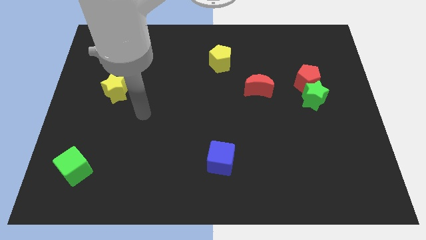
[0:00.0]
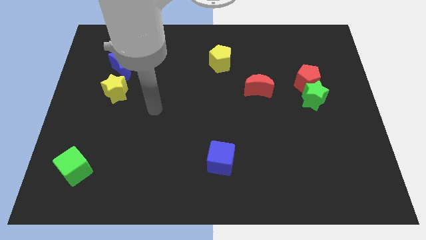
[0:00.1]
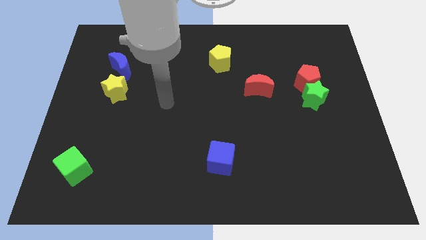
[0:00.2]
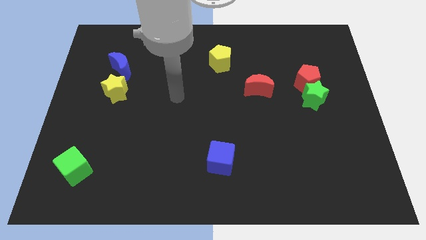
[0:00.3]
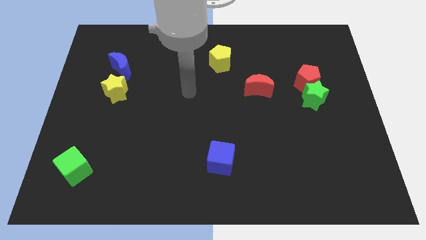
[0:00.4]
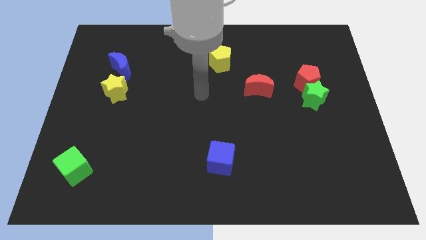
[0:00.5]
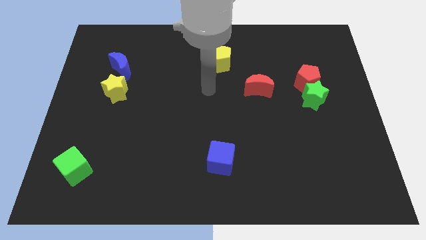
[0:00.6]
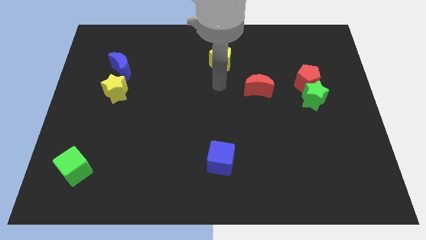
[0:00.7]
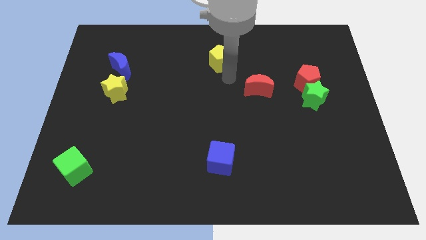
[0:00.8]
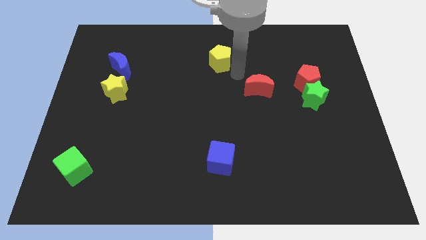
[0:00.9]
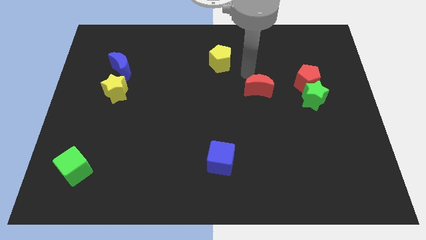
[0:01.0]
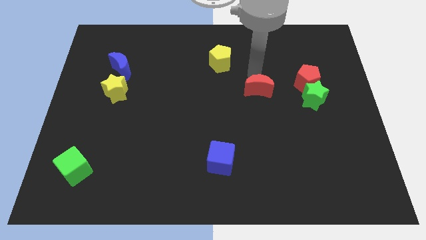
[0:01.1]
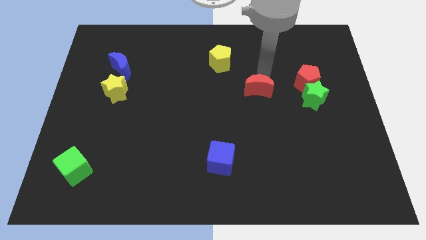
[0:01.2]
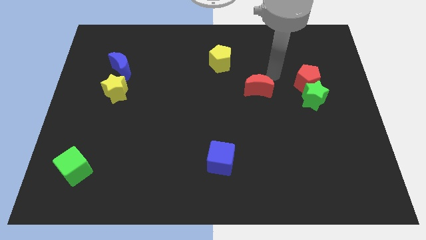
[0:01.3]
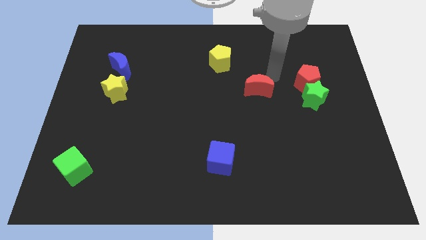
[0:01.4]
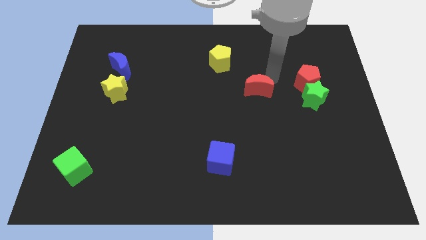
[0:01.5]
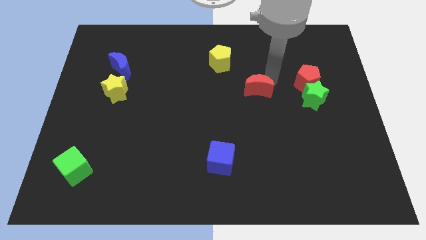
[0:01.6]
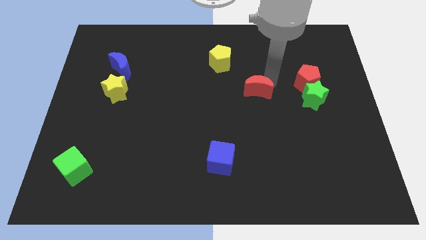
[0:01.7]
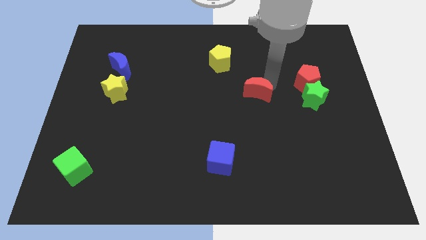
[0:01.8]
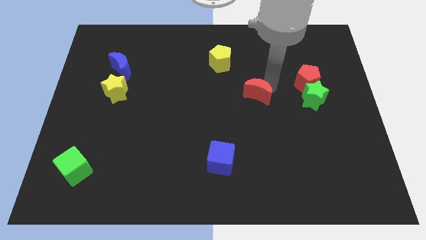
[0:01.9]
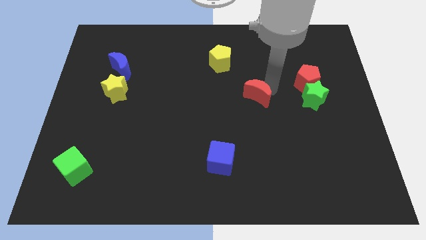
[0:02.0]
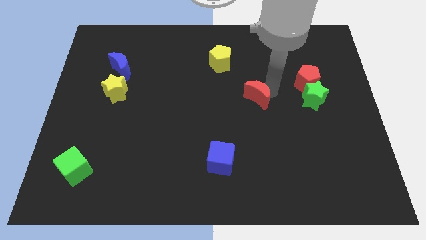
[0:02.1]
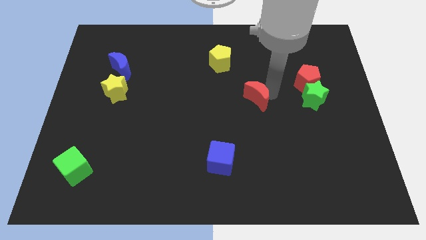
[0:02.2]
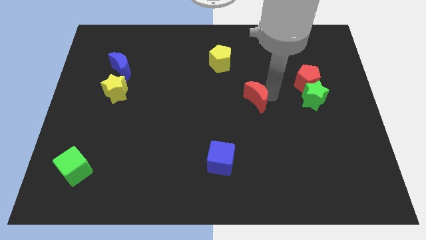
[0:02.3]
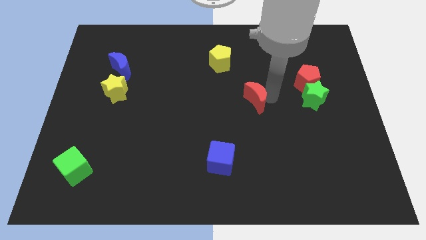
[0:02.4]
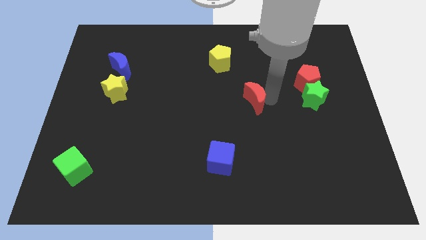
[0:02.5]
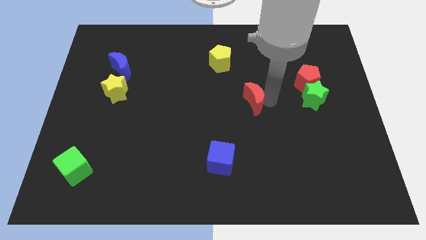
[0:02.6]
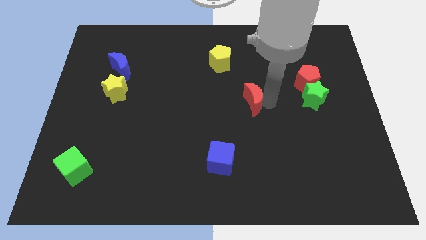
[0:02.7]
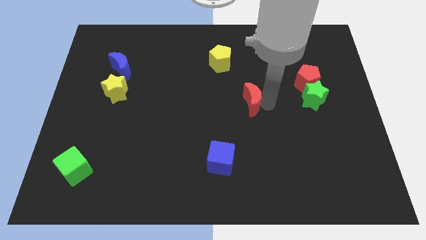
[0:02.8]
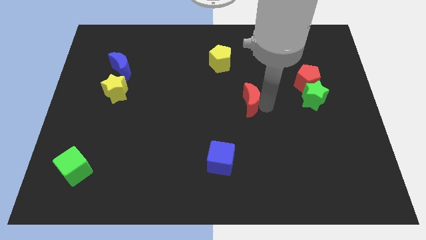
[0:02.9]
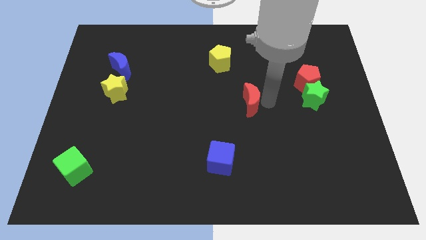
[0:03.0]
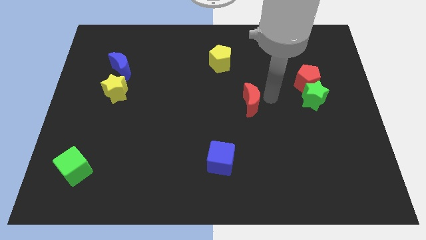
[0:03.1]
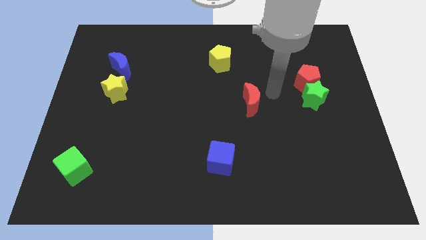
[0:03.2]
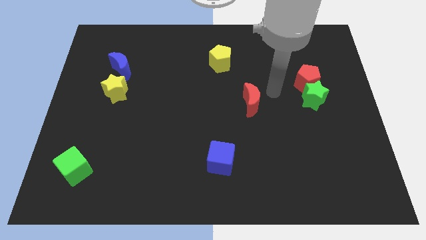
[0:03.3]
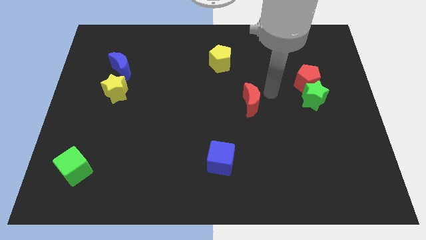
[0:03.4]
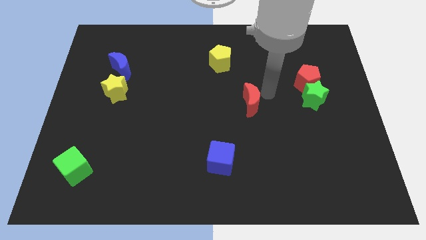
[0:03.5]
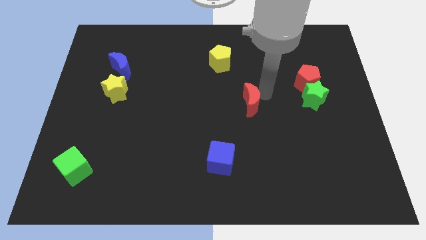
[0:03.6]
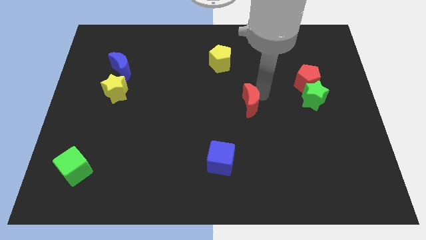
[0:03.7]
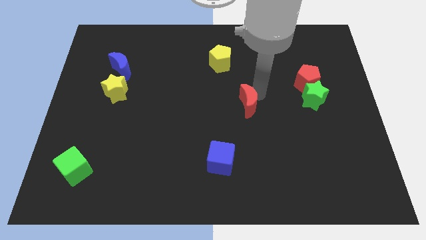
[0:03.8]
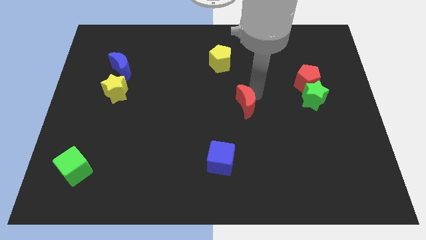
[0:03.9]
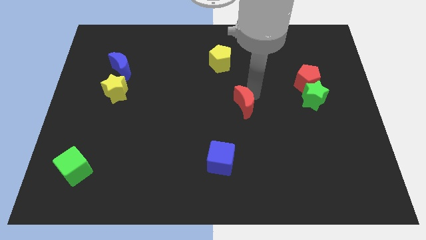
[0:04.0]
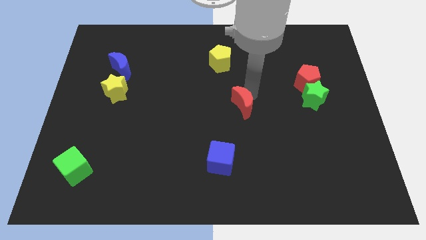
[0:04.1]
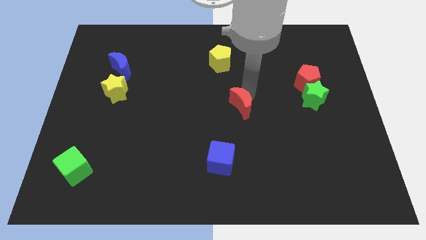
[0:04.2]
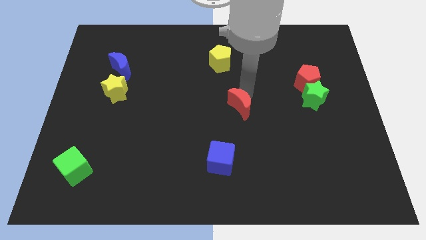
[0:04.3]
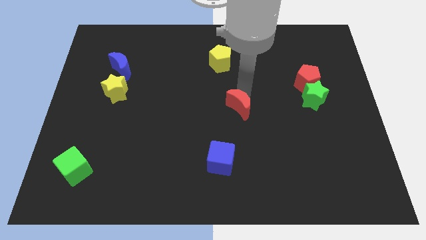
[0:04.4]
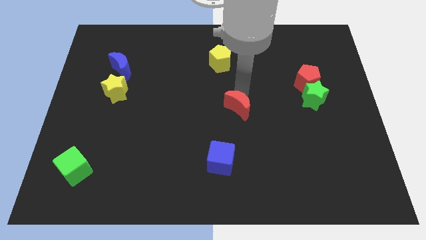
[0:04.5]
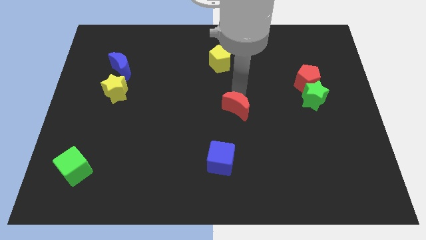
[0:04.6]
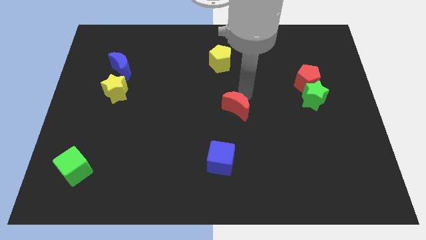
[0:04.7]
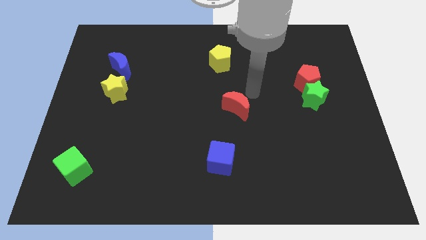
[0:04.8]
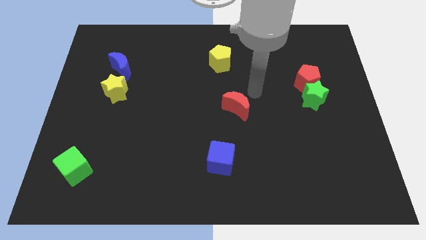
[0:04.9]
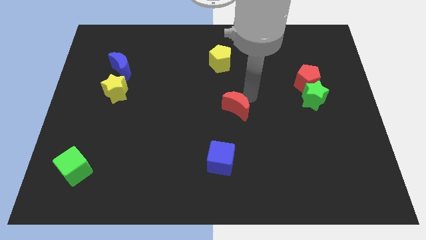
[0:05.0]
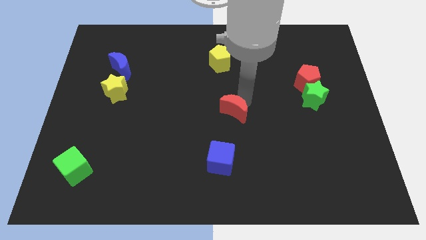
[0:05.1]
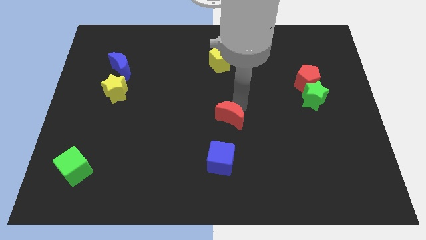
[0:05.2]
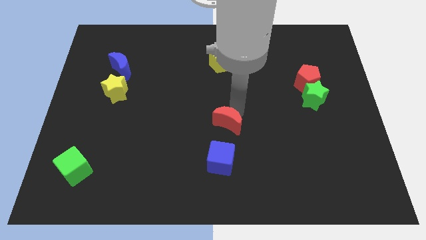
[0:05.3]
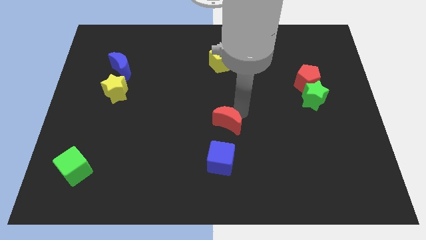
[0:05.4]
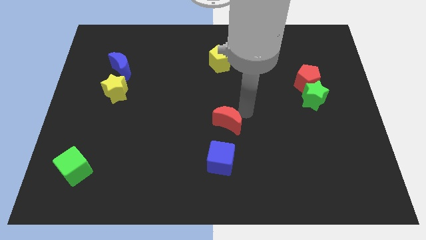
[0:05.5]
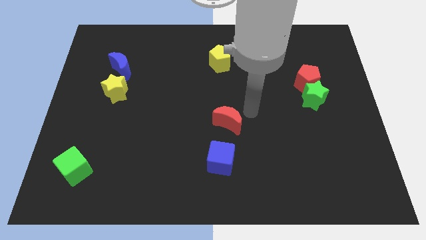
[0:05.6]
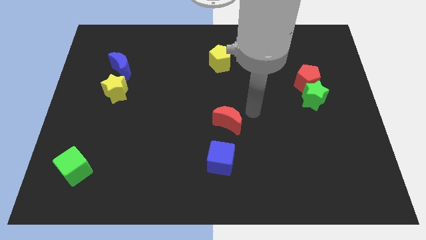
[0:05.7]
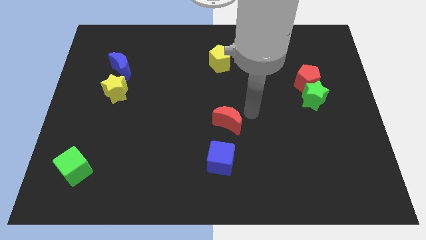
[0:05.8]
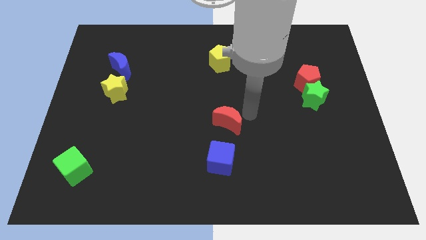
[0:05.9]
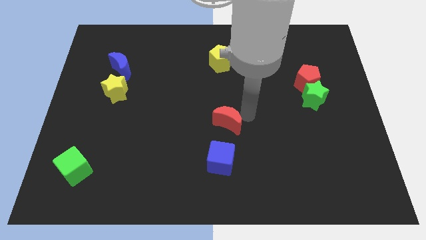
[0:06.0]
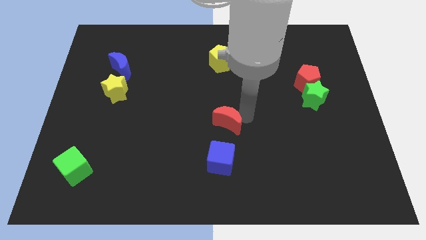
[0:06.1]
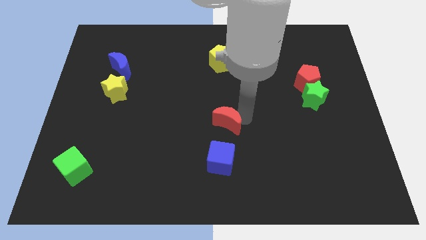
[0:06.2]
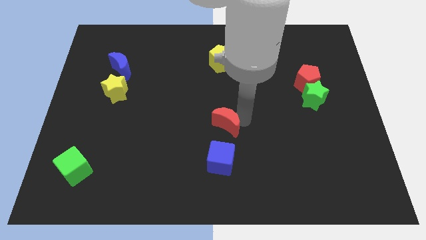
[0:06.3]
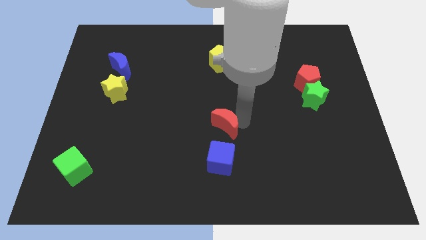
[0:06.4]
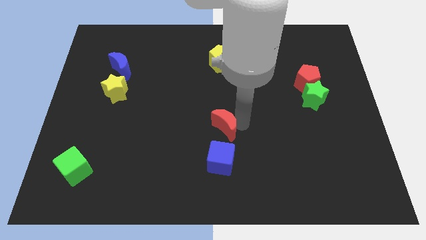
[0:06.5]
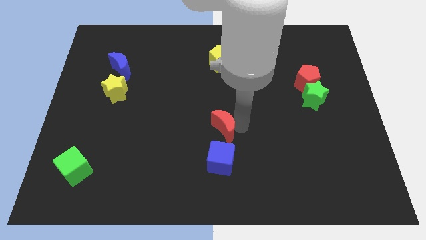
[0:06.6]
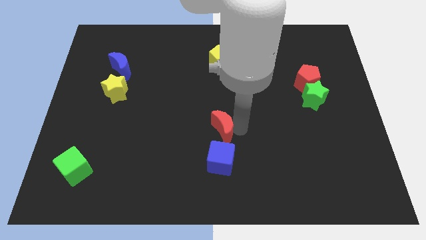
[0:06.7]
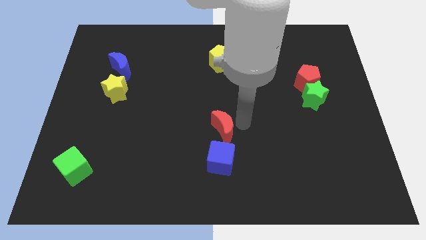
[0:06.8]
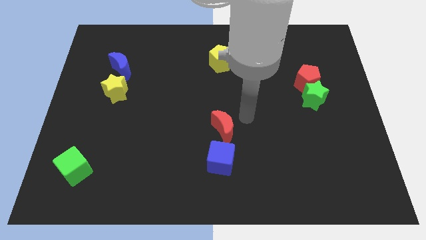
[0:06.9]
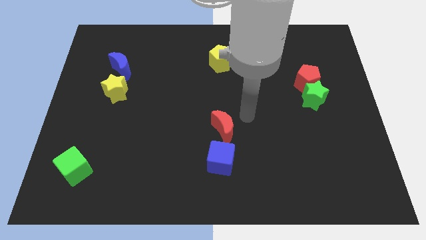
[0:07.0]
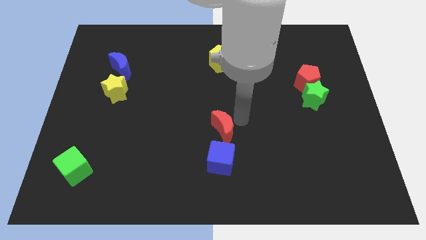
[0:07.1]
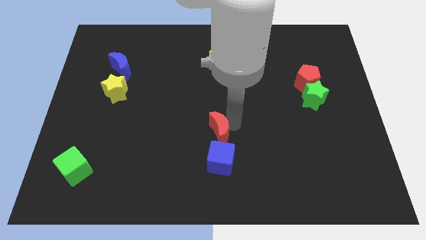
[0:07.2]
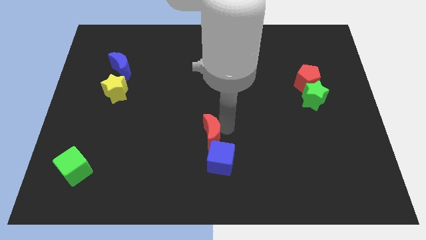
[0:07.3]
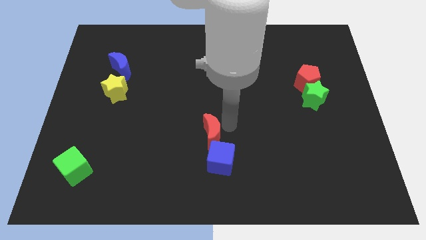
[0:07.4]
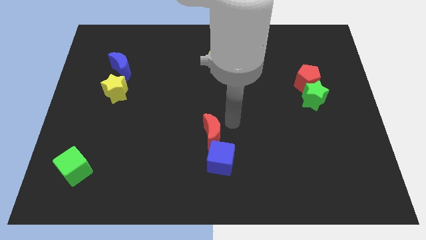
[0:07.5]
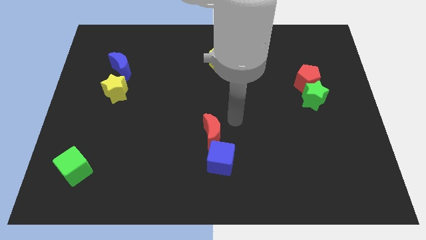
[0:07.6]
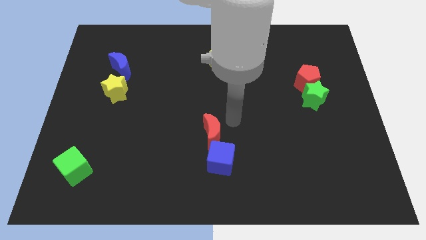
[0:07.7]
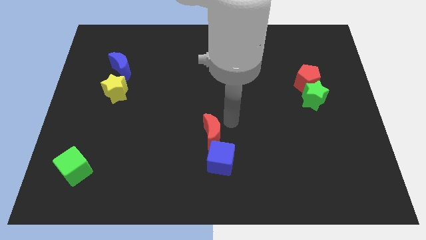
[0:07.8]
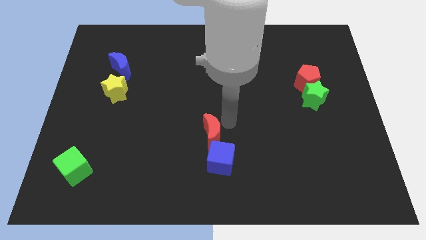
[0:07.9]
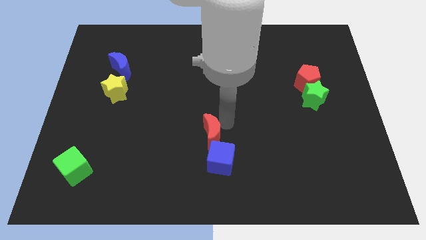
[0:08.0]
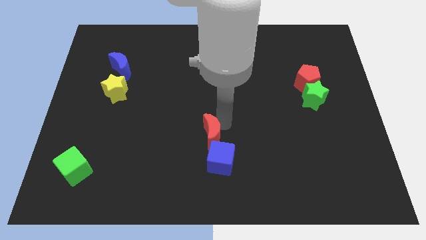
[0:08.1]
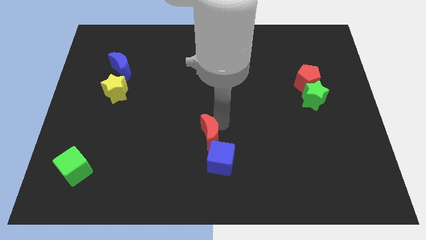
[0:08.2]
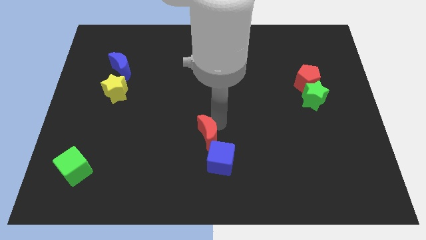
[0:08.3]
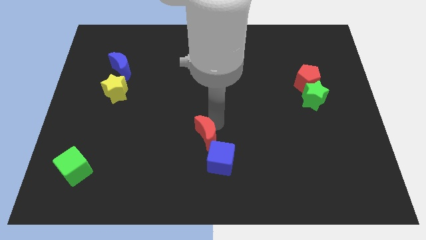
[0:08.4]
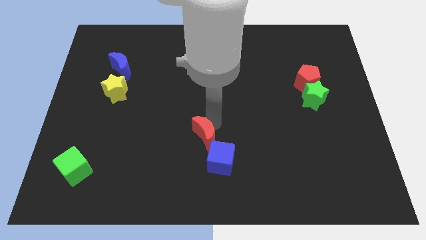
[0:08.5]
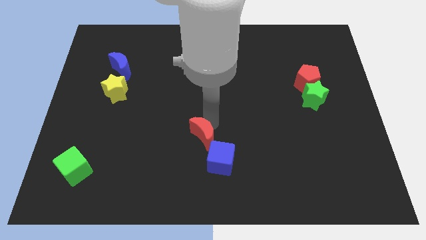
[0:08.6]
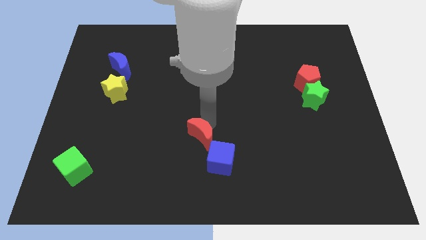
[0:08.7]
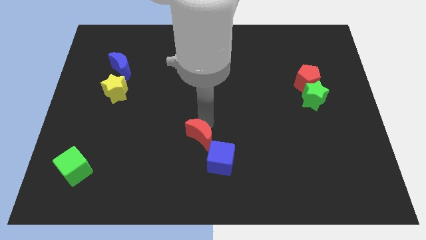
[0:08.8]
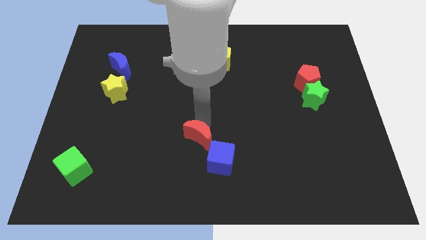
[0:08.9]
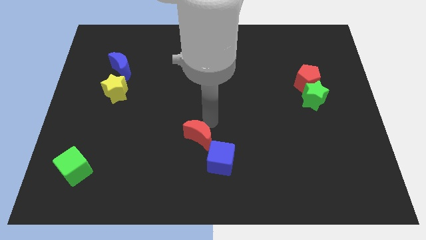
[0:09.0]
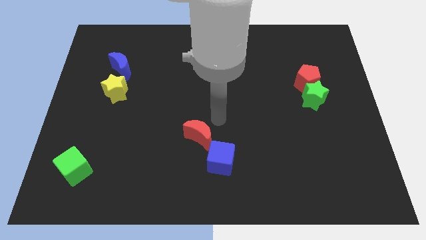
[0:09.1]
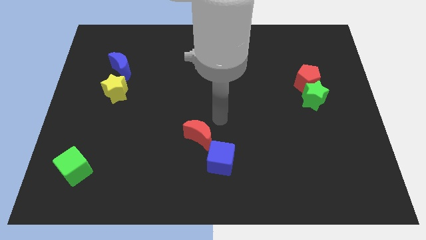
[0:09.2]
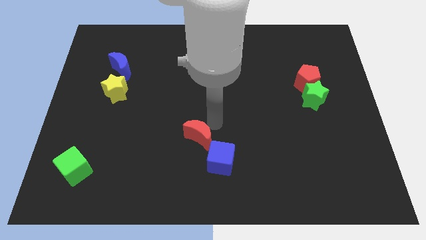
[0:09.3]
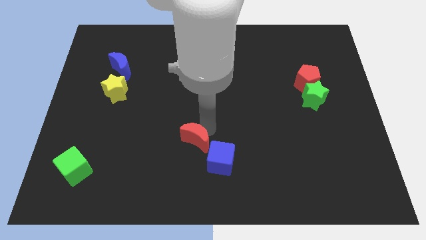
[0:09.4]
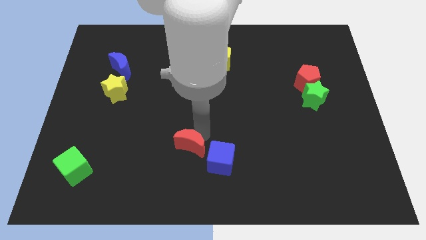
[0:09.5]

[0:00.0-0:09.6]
slide the red moon to the left side of the blue cube
